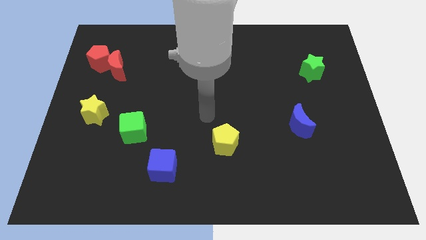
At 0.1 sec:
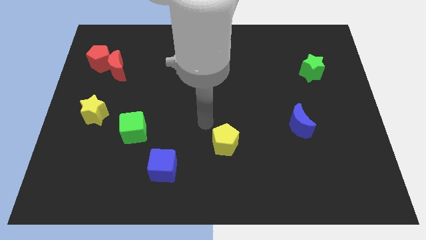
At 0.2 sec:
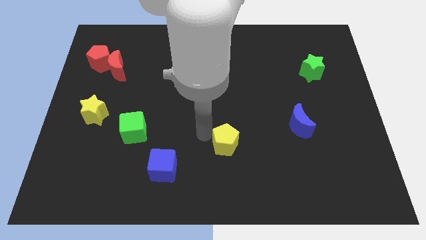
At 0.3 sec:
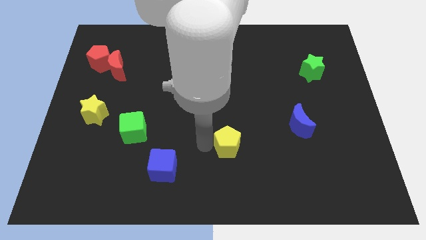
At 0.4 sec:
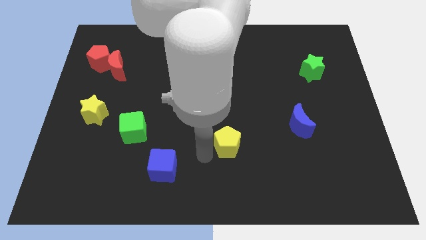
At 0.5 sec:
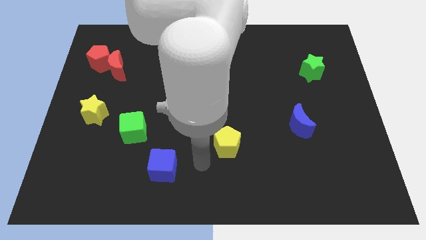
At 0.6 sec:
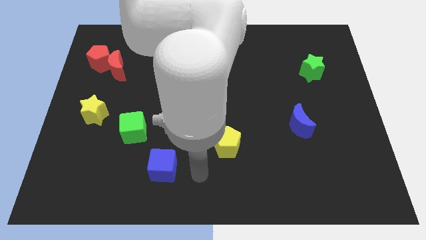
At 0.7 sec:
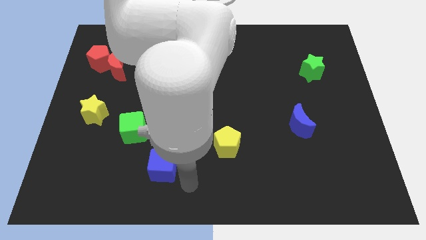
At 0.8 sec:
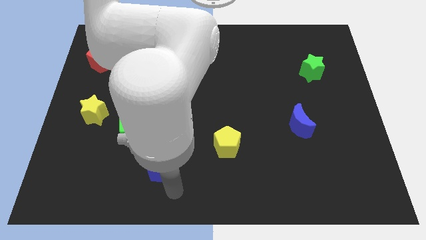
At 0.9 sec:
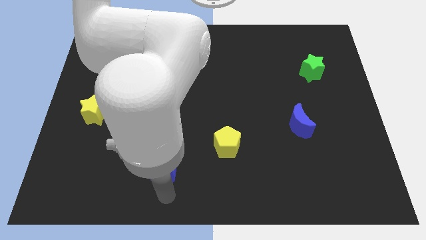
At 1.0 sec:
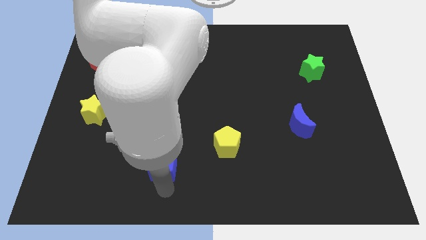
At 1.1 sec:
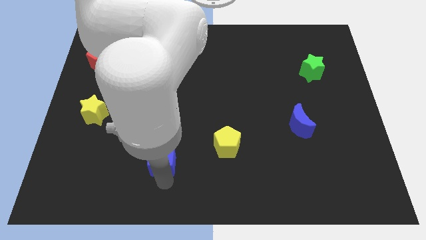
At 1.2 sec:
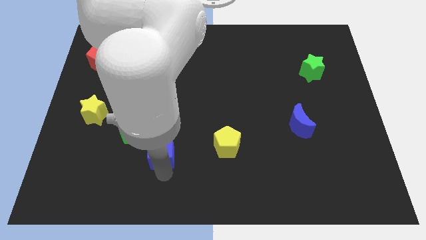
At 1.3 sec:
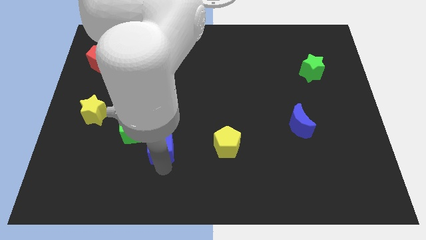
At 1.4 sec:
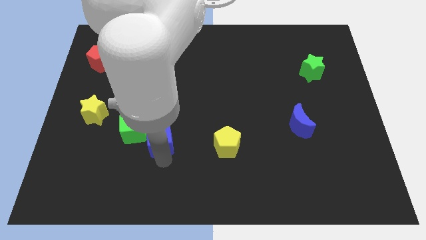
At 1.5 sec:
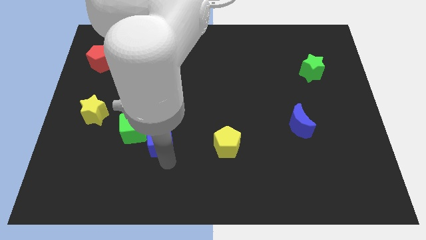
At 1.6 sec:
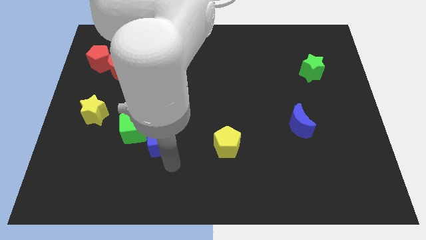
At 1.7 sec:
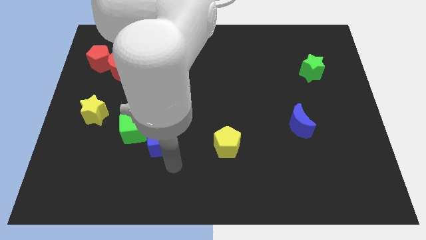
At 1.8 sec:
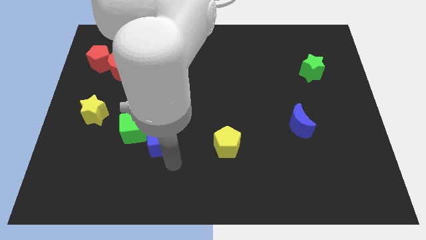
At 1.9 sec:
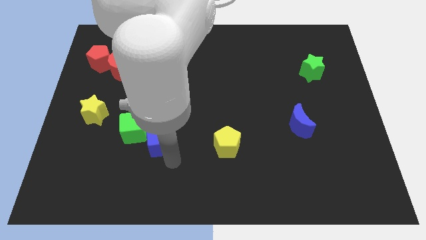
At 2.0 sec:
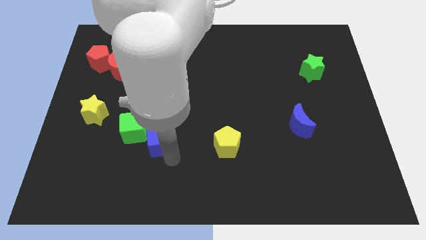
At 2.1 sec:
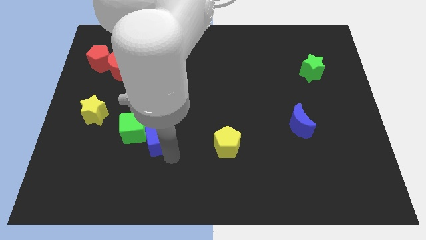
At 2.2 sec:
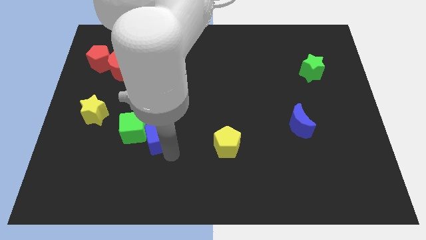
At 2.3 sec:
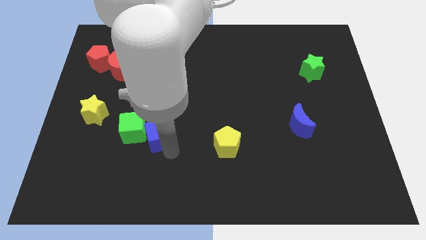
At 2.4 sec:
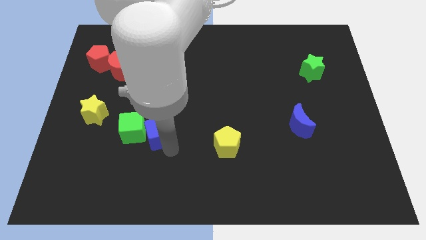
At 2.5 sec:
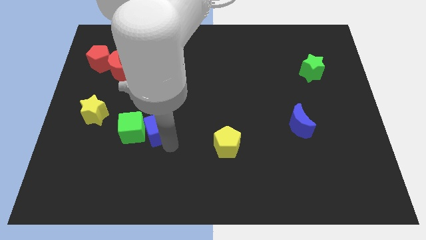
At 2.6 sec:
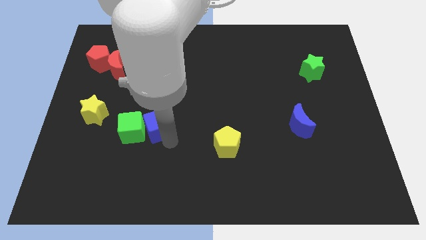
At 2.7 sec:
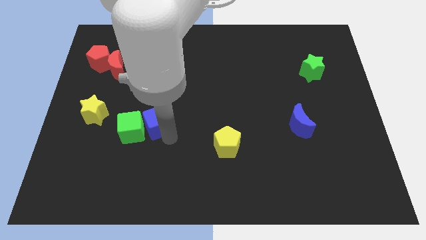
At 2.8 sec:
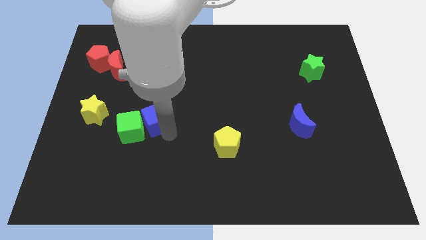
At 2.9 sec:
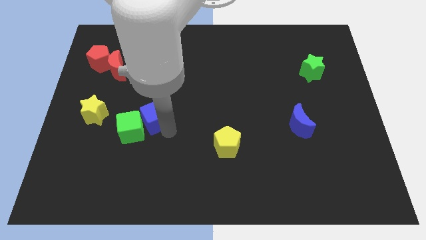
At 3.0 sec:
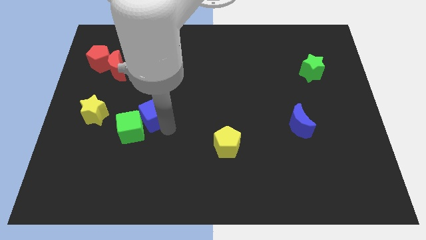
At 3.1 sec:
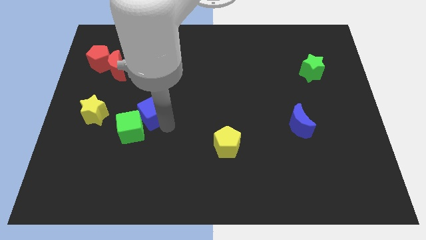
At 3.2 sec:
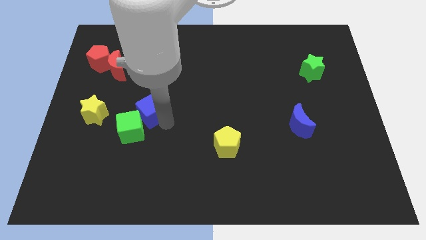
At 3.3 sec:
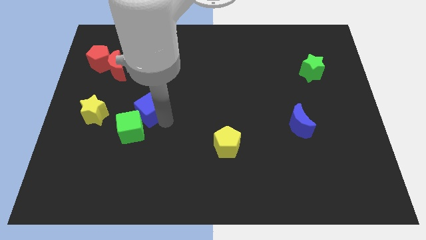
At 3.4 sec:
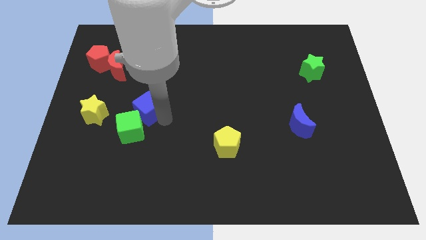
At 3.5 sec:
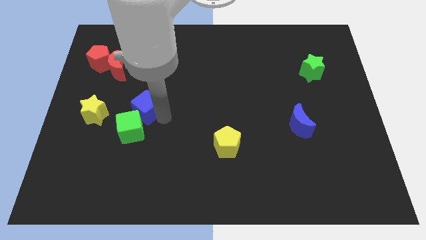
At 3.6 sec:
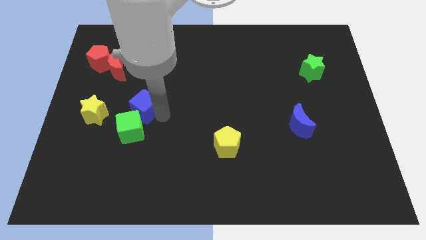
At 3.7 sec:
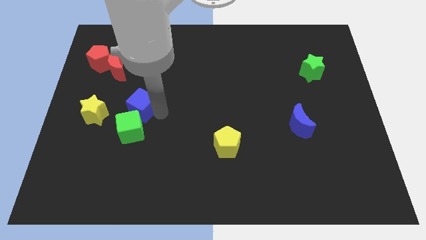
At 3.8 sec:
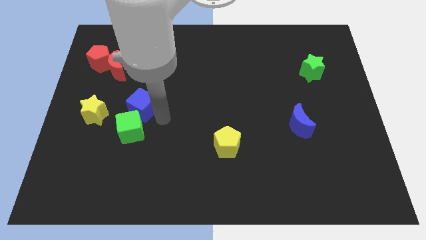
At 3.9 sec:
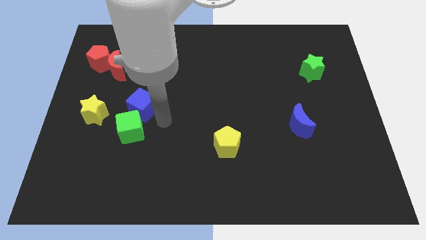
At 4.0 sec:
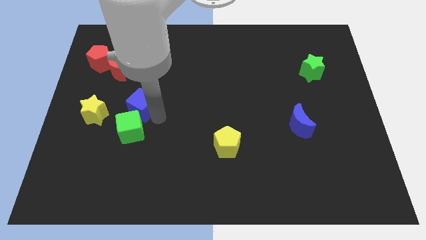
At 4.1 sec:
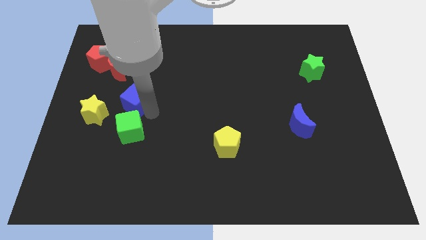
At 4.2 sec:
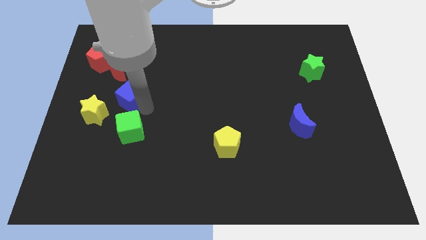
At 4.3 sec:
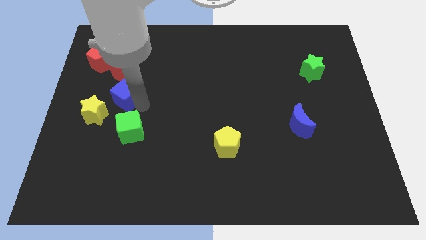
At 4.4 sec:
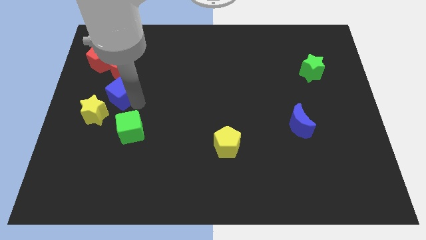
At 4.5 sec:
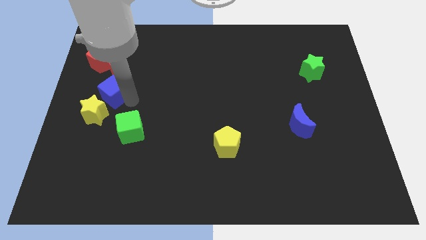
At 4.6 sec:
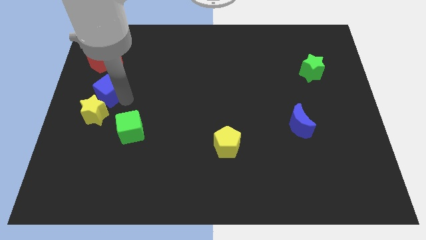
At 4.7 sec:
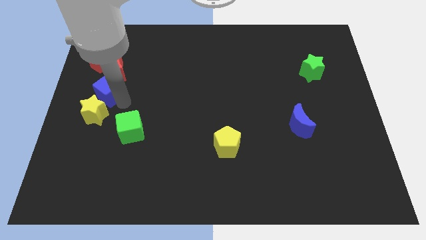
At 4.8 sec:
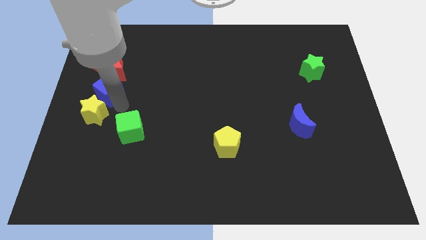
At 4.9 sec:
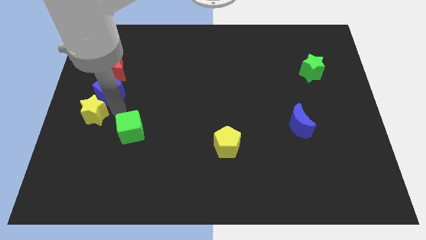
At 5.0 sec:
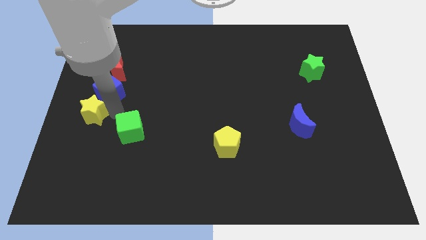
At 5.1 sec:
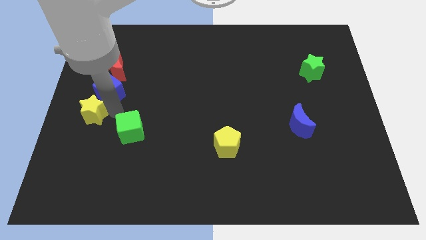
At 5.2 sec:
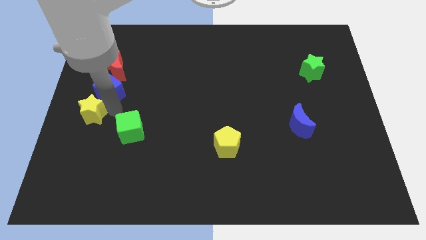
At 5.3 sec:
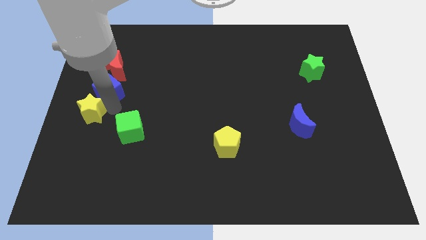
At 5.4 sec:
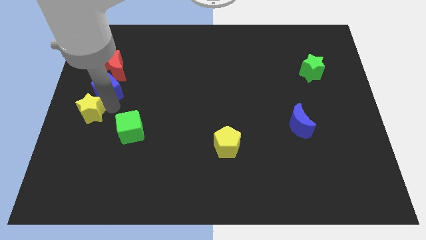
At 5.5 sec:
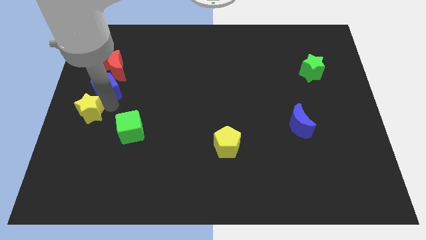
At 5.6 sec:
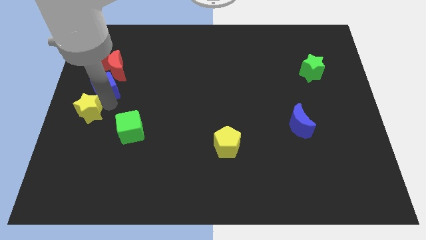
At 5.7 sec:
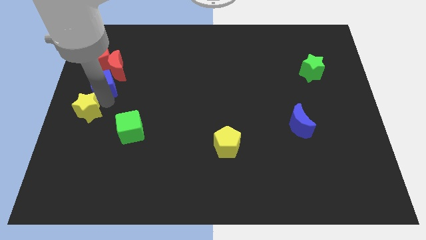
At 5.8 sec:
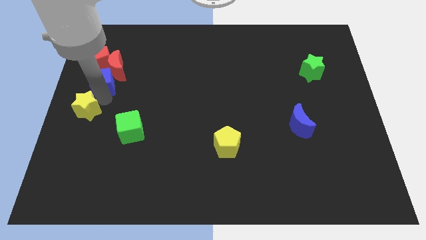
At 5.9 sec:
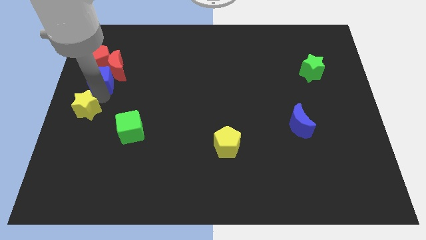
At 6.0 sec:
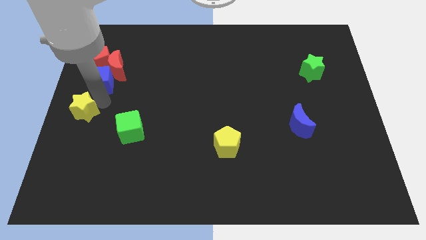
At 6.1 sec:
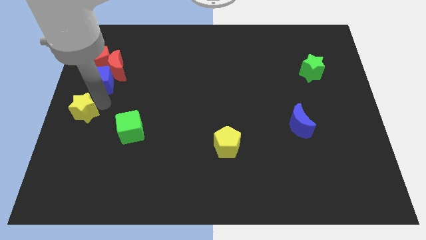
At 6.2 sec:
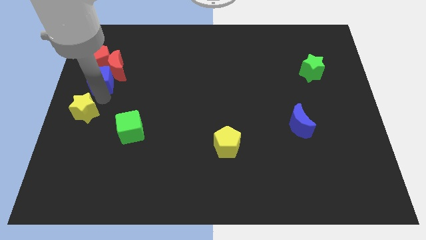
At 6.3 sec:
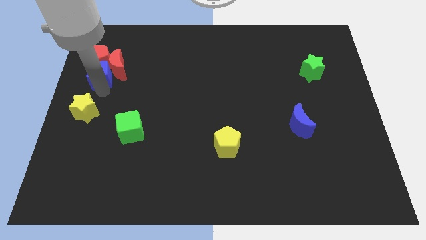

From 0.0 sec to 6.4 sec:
put the blue cube to the red pentagon

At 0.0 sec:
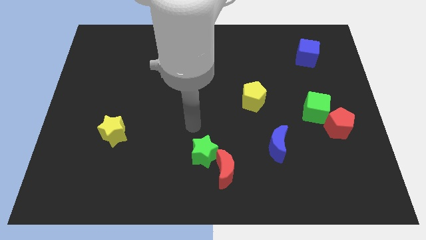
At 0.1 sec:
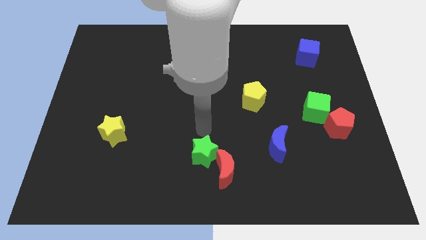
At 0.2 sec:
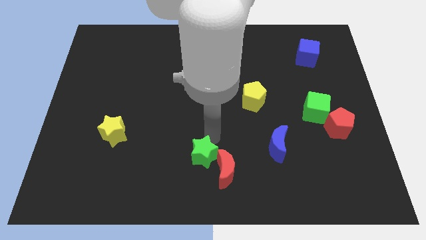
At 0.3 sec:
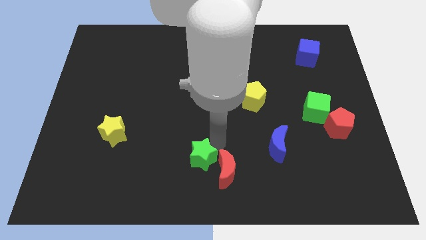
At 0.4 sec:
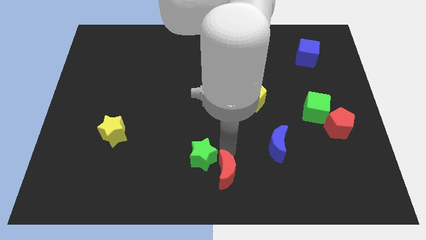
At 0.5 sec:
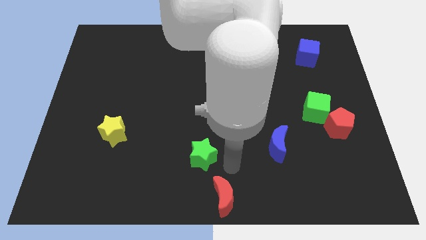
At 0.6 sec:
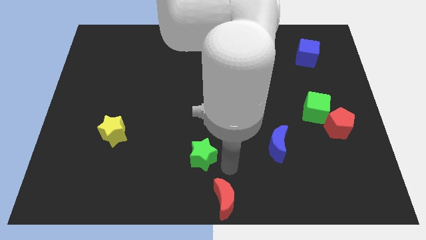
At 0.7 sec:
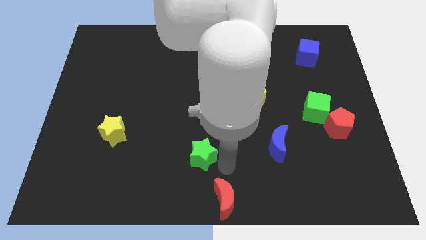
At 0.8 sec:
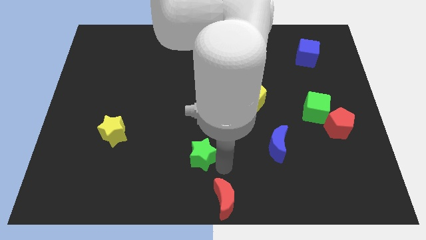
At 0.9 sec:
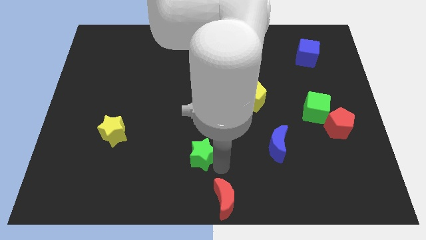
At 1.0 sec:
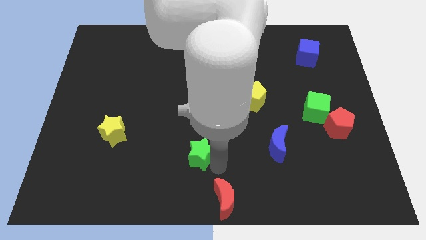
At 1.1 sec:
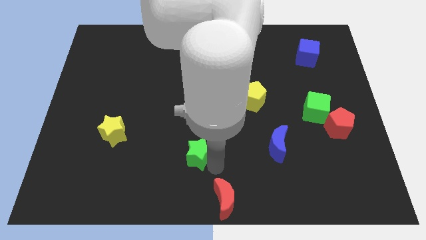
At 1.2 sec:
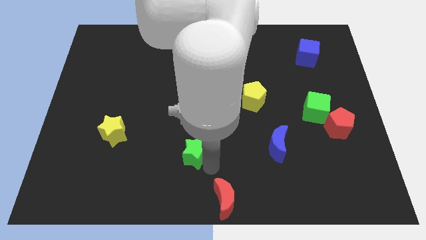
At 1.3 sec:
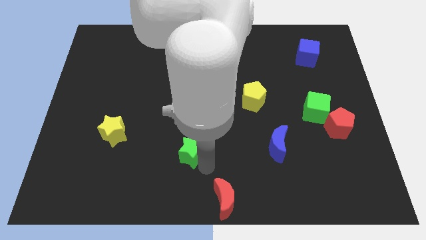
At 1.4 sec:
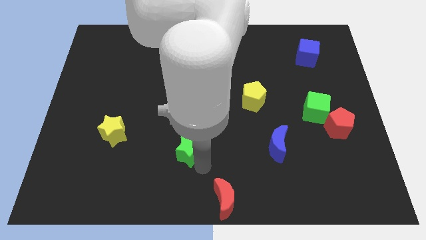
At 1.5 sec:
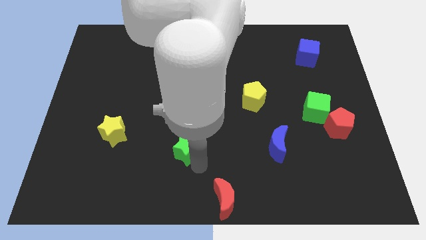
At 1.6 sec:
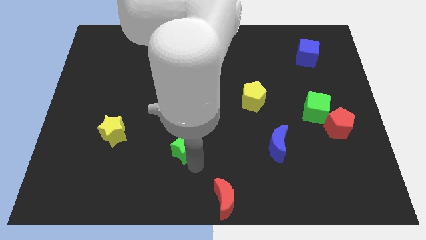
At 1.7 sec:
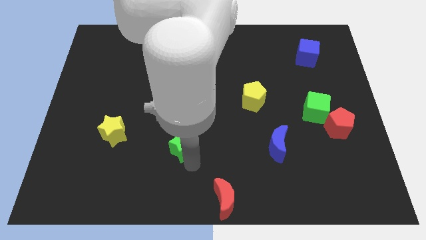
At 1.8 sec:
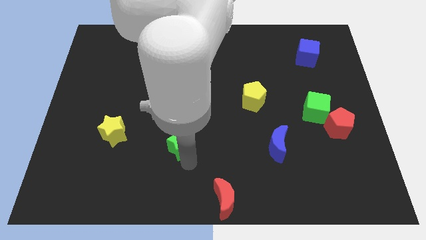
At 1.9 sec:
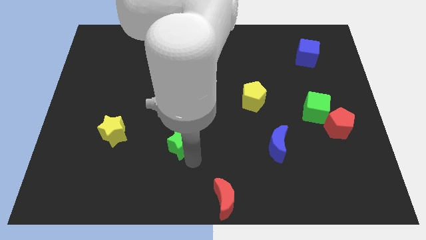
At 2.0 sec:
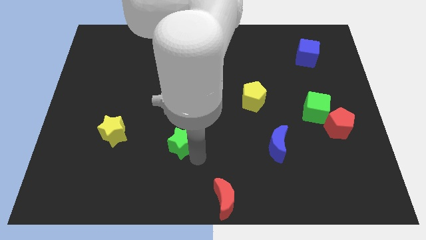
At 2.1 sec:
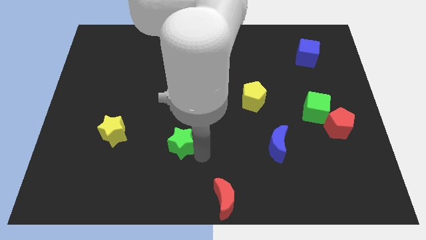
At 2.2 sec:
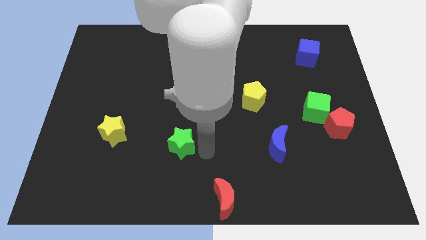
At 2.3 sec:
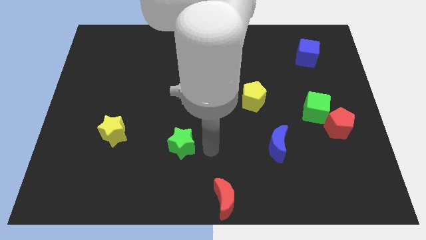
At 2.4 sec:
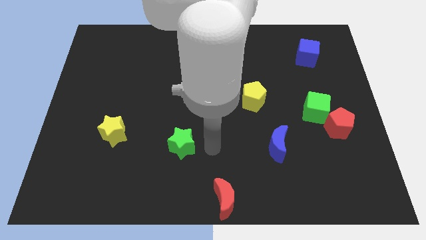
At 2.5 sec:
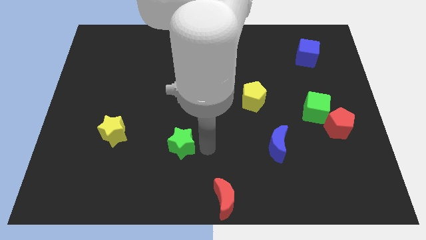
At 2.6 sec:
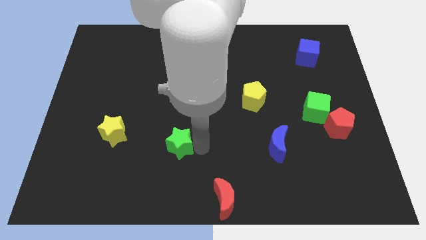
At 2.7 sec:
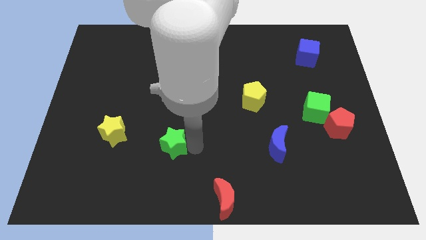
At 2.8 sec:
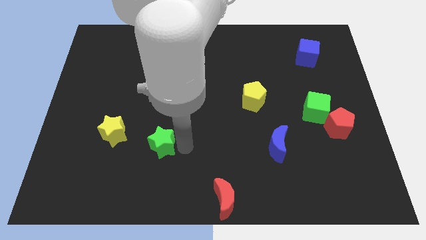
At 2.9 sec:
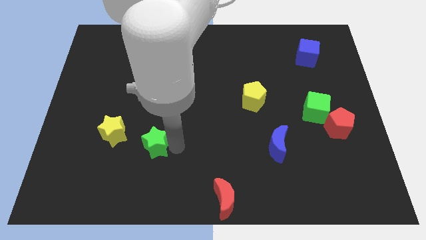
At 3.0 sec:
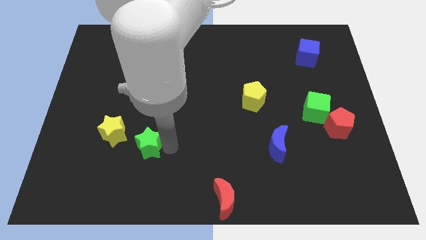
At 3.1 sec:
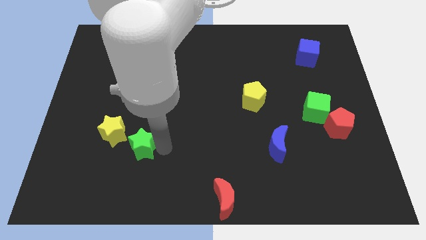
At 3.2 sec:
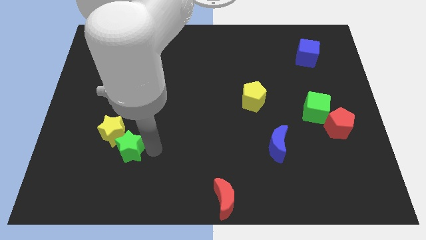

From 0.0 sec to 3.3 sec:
put the green star next to the yellow star
